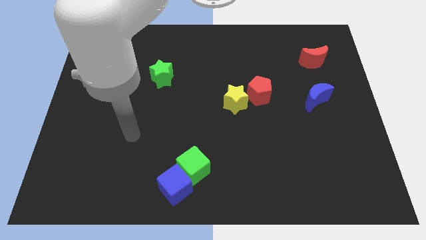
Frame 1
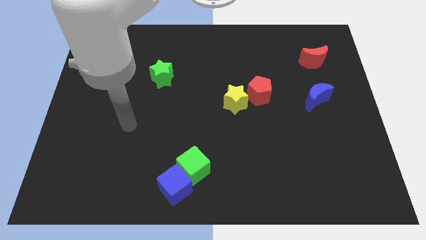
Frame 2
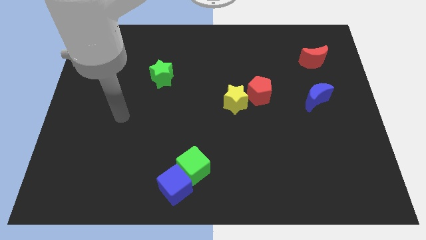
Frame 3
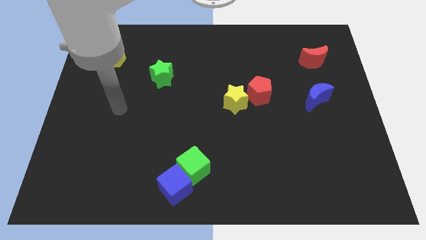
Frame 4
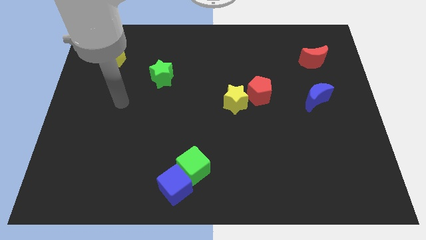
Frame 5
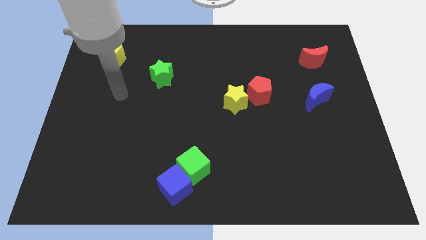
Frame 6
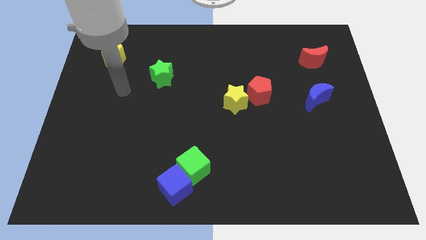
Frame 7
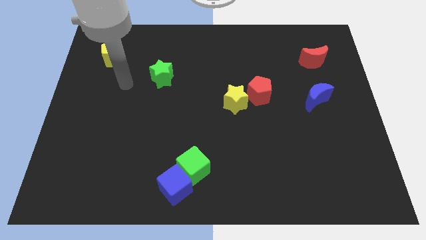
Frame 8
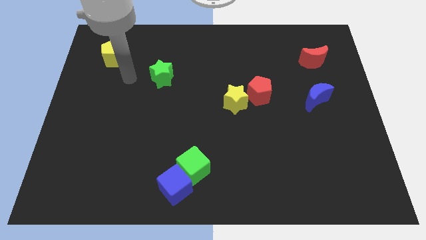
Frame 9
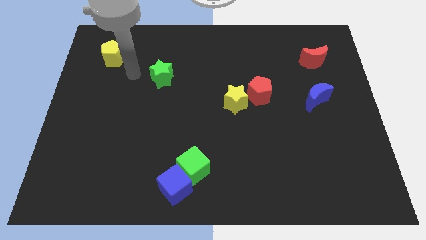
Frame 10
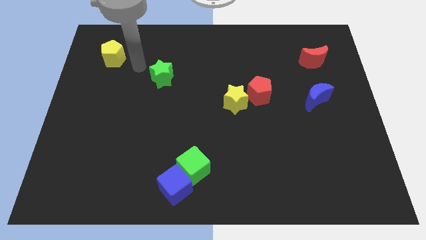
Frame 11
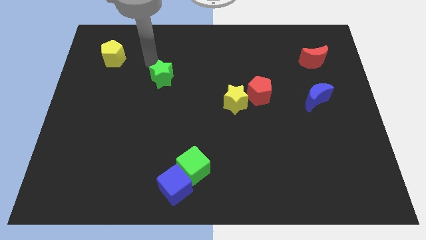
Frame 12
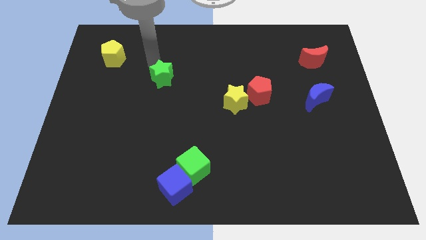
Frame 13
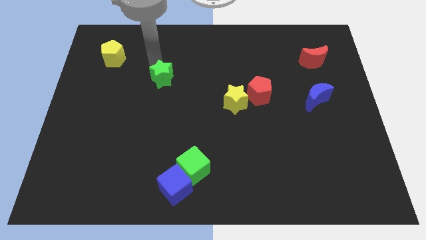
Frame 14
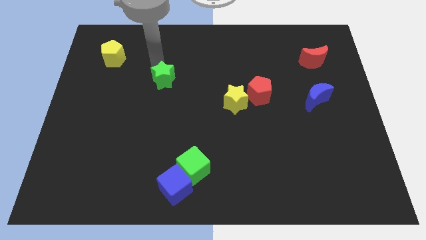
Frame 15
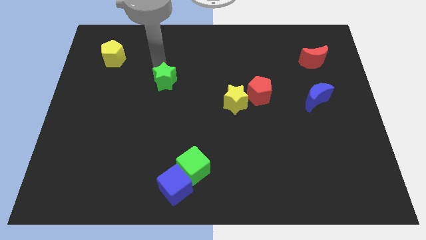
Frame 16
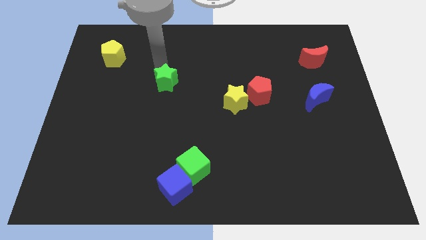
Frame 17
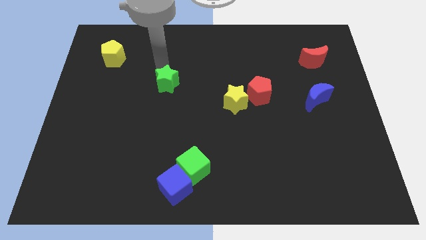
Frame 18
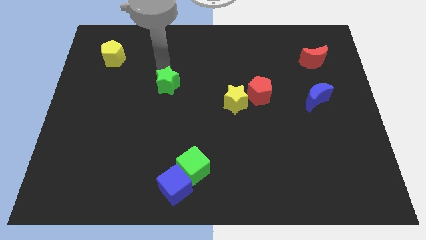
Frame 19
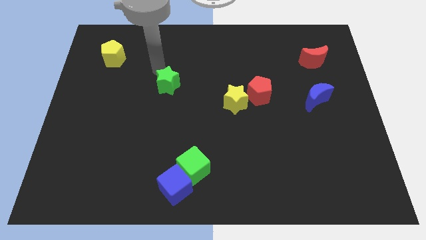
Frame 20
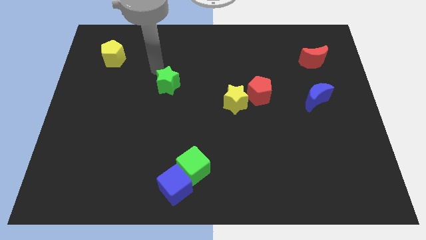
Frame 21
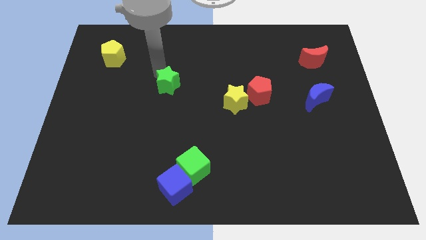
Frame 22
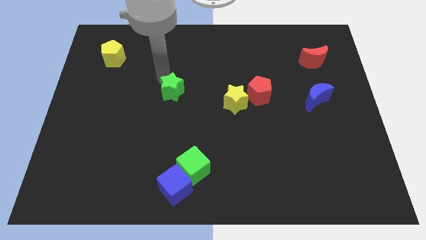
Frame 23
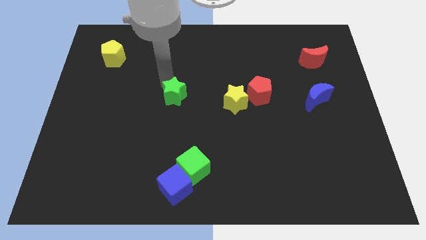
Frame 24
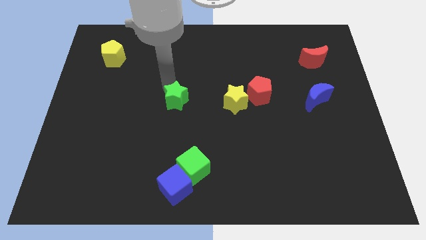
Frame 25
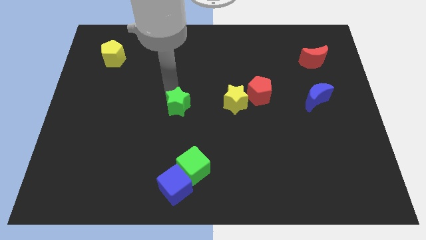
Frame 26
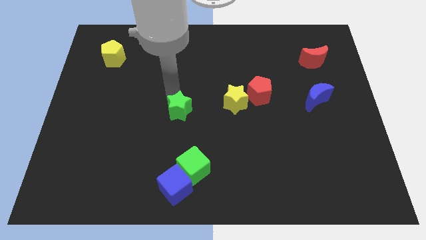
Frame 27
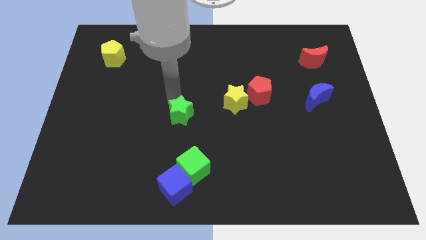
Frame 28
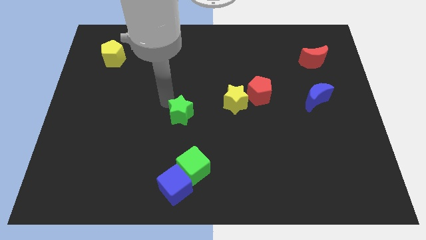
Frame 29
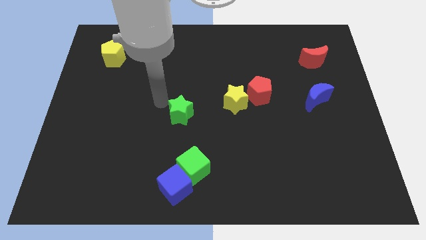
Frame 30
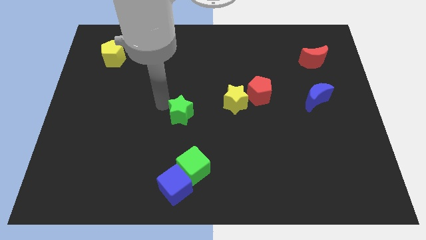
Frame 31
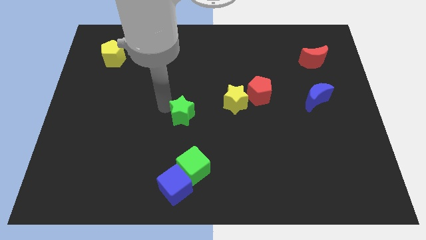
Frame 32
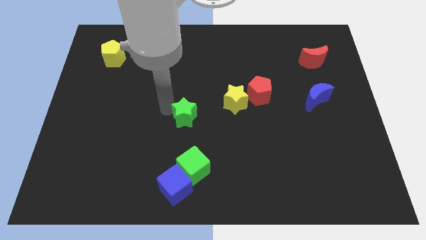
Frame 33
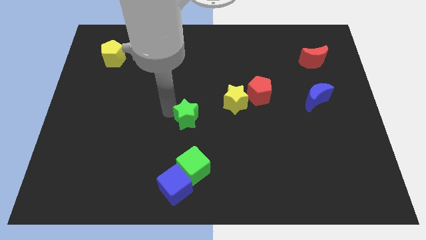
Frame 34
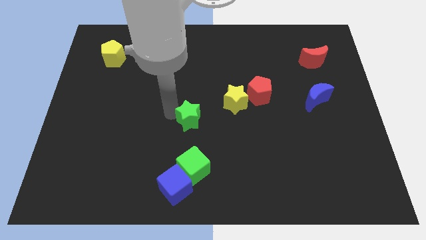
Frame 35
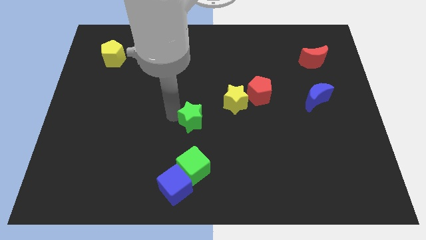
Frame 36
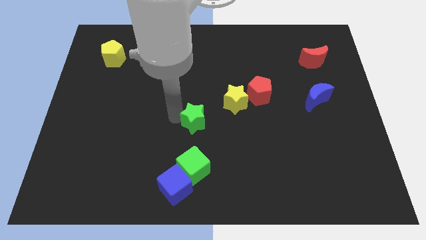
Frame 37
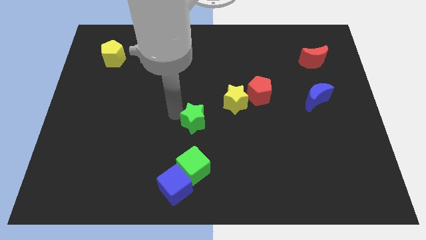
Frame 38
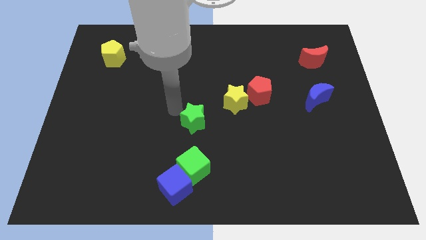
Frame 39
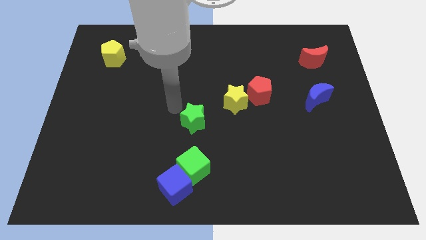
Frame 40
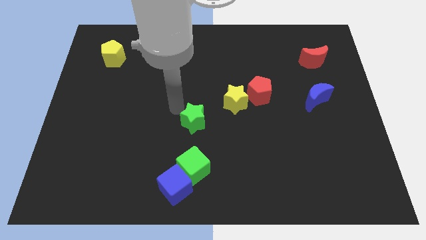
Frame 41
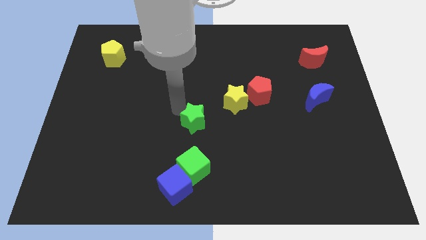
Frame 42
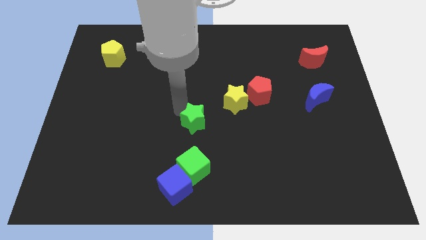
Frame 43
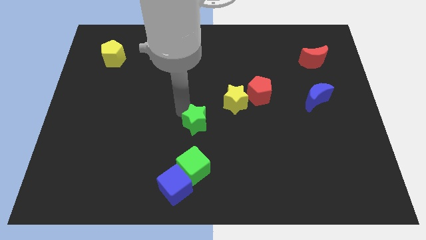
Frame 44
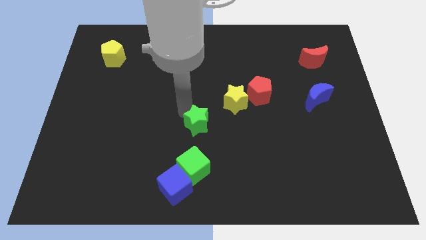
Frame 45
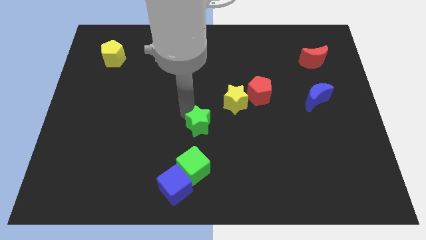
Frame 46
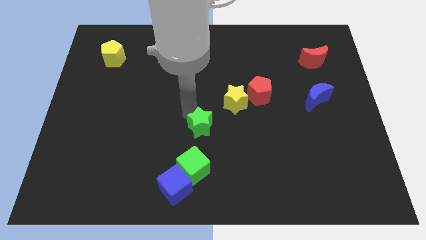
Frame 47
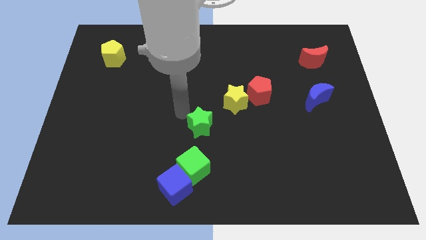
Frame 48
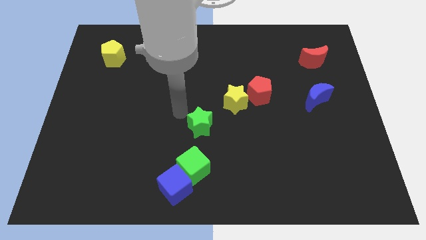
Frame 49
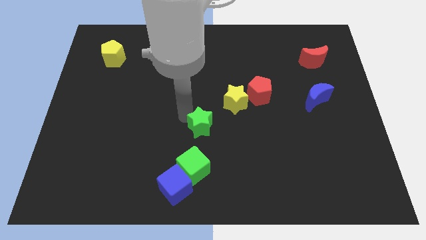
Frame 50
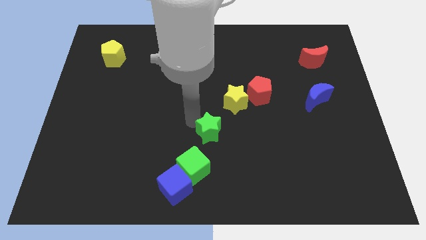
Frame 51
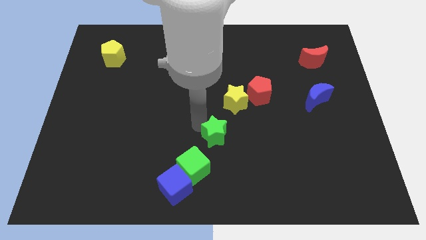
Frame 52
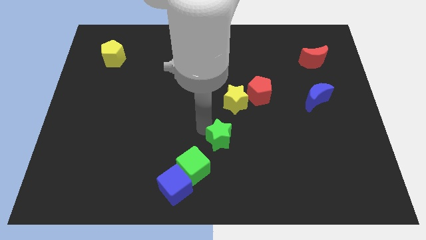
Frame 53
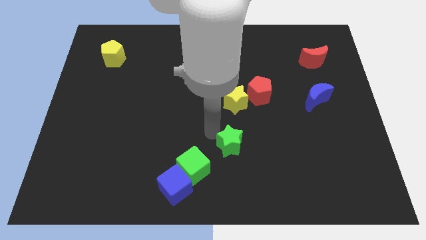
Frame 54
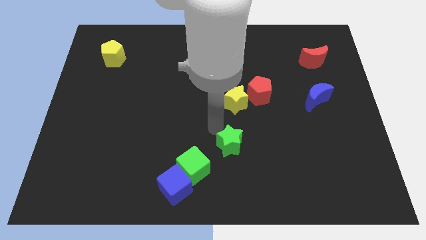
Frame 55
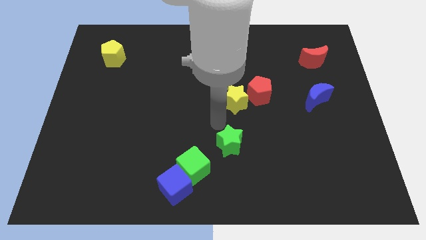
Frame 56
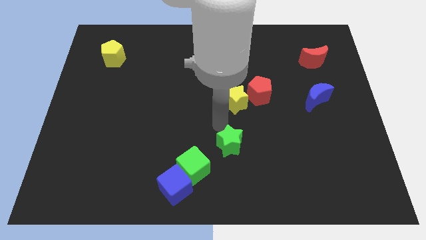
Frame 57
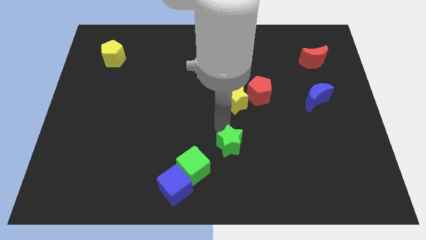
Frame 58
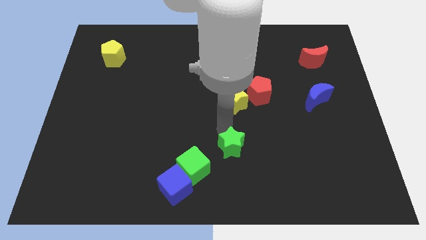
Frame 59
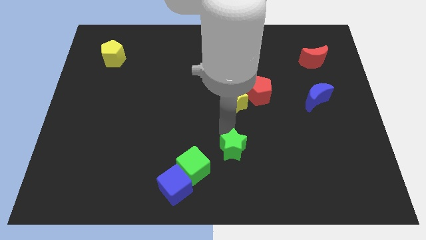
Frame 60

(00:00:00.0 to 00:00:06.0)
push the green star to the right of the green cube
